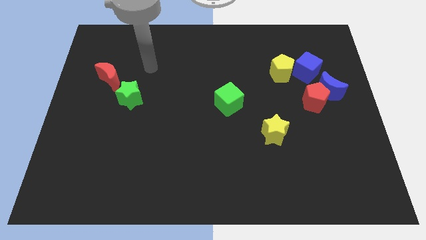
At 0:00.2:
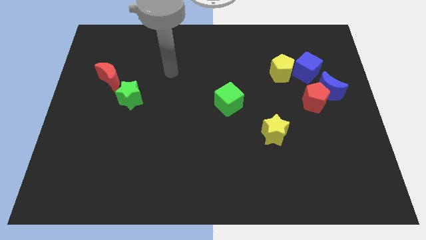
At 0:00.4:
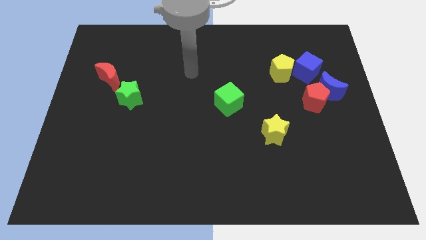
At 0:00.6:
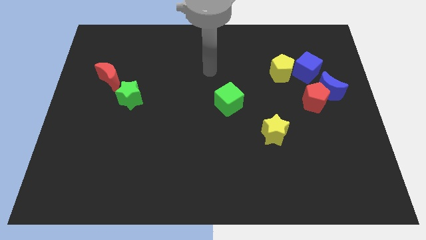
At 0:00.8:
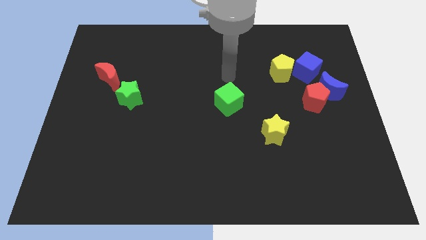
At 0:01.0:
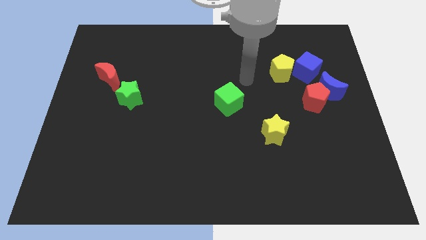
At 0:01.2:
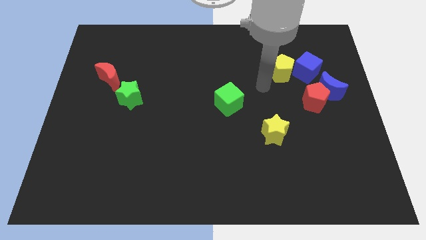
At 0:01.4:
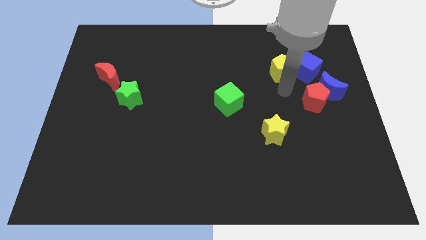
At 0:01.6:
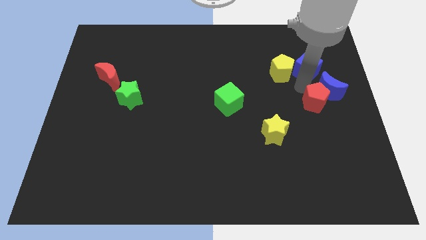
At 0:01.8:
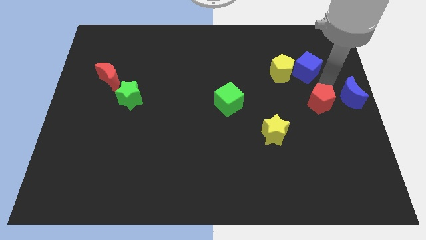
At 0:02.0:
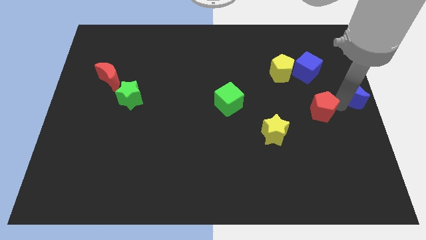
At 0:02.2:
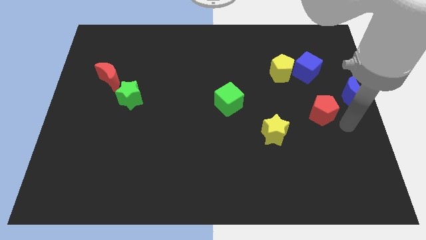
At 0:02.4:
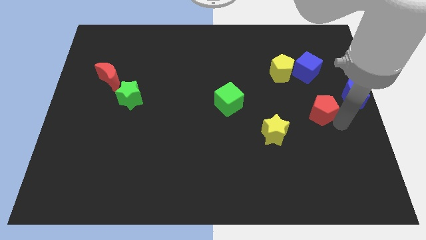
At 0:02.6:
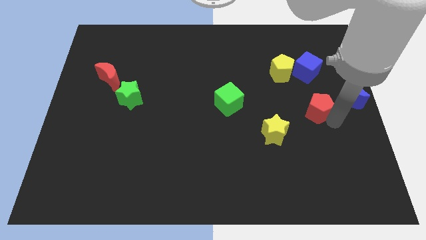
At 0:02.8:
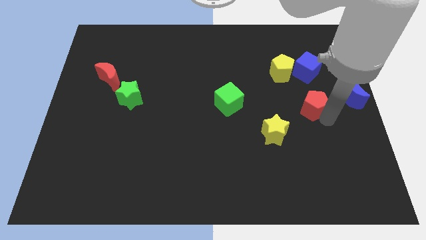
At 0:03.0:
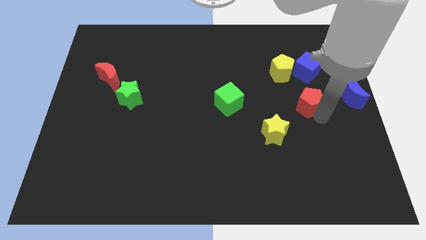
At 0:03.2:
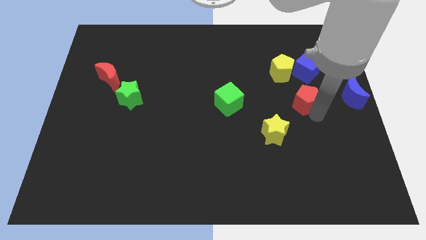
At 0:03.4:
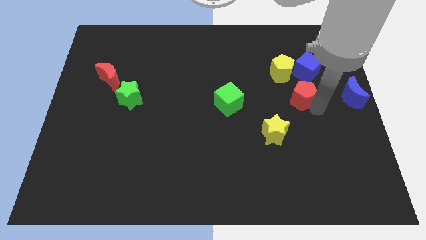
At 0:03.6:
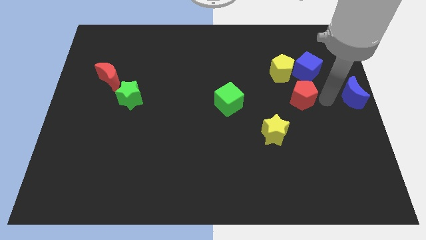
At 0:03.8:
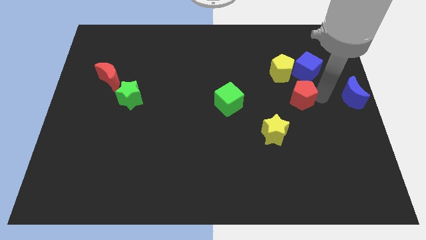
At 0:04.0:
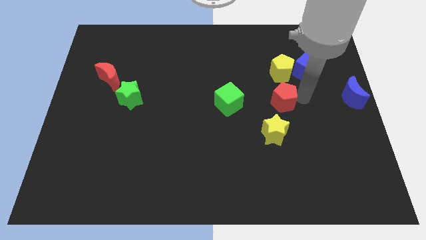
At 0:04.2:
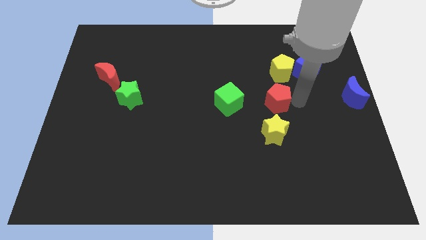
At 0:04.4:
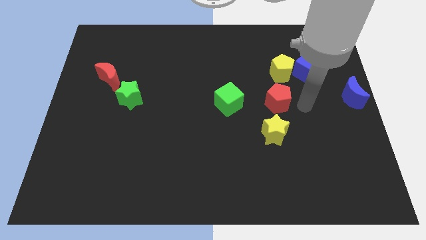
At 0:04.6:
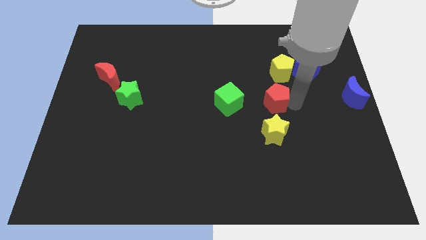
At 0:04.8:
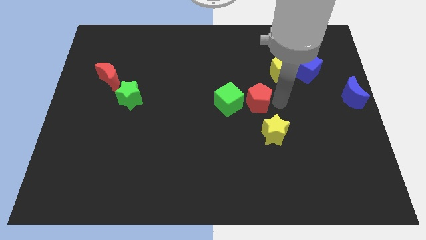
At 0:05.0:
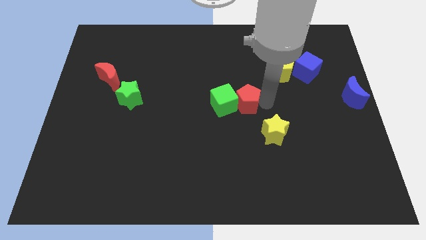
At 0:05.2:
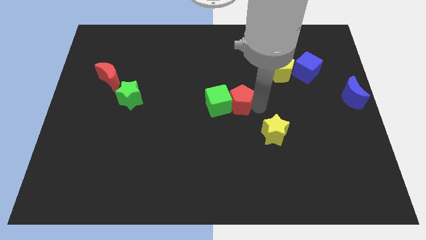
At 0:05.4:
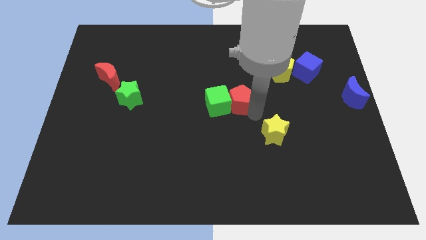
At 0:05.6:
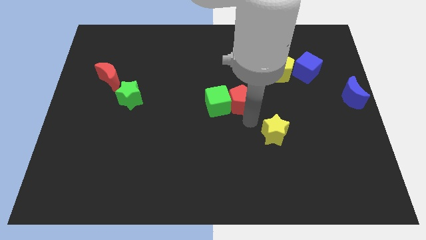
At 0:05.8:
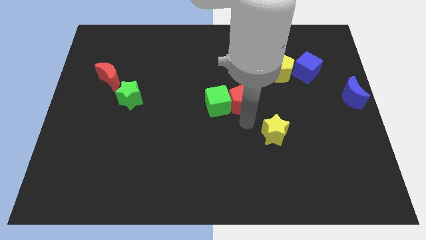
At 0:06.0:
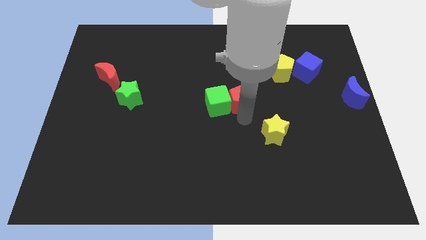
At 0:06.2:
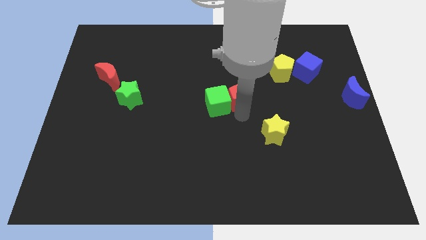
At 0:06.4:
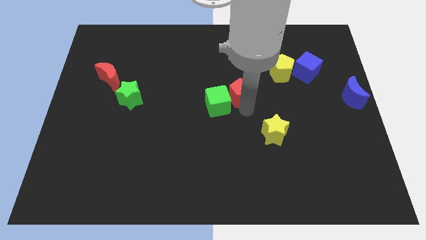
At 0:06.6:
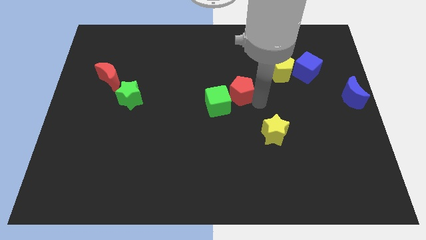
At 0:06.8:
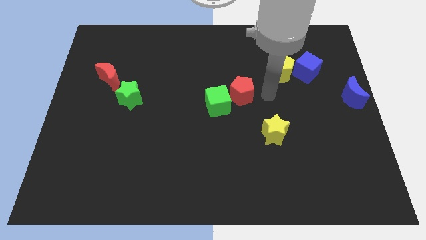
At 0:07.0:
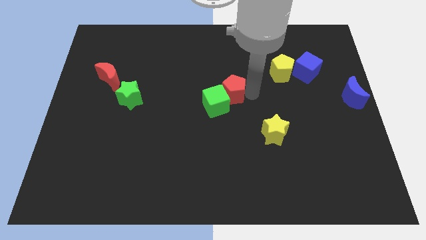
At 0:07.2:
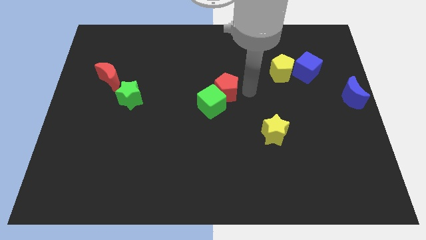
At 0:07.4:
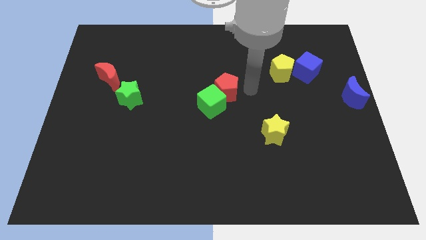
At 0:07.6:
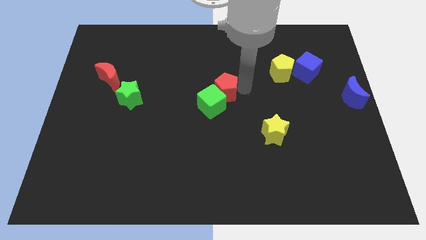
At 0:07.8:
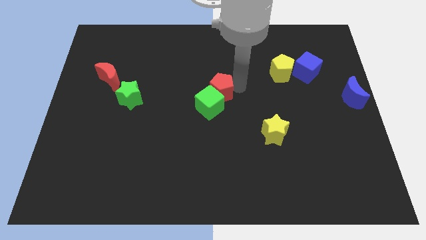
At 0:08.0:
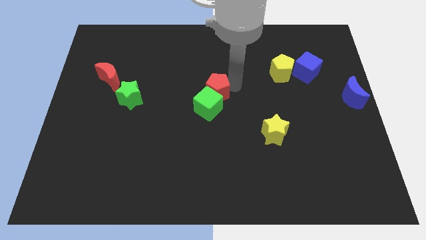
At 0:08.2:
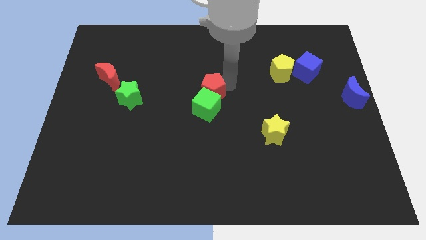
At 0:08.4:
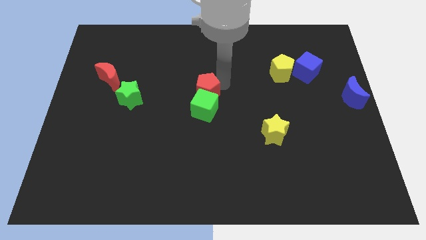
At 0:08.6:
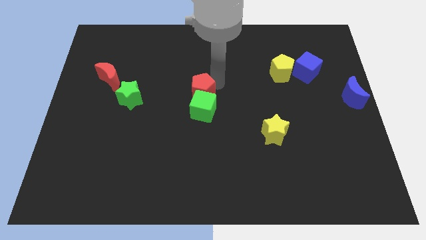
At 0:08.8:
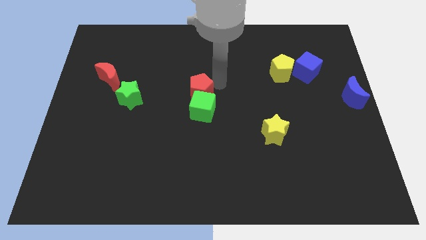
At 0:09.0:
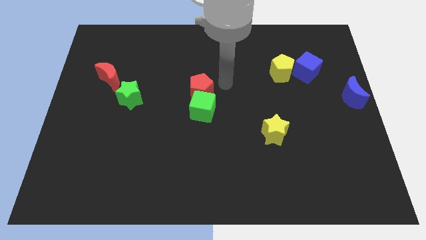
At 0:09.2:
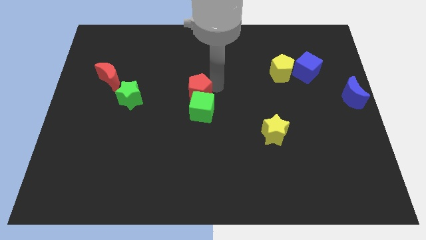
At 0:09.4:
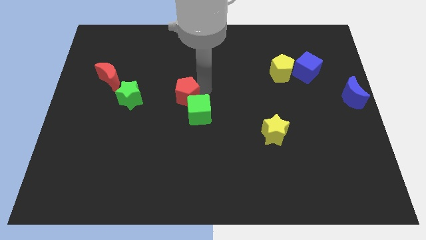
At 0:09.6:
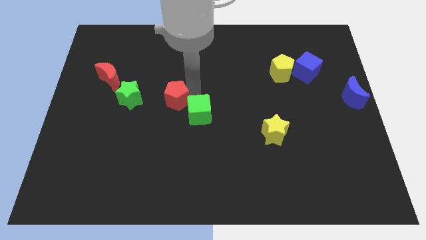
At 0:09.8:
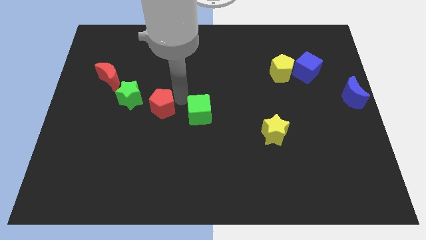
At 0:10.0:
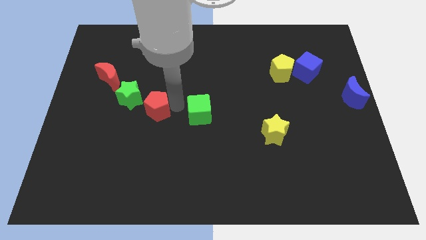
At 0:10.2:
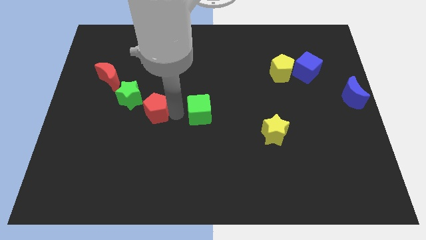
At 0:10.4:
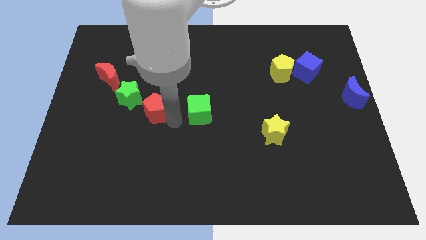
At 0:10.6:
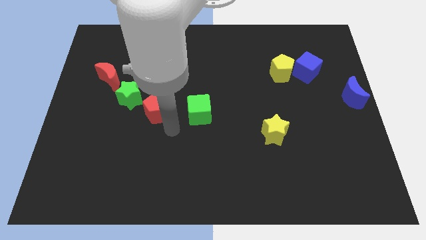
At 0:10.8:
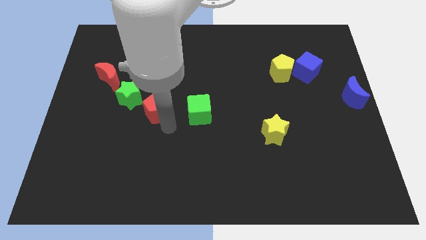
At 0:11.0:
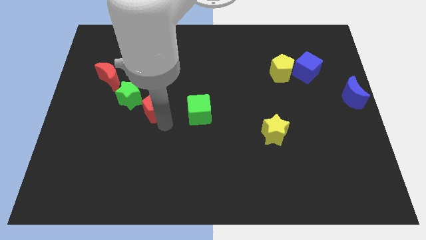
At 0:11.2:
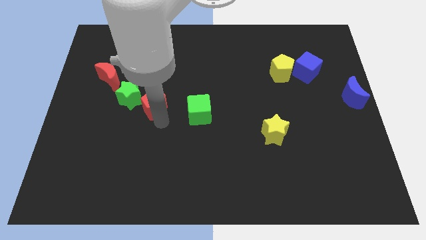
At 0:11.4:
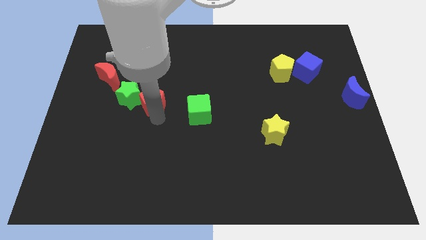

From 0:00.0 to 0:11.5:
push the red pentagon towards the green star

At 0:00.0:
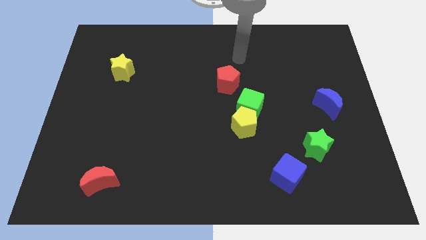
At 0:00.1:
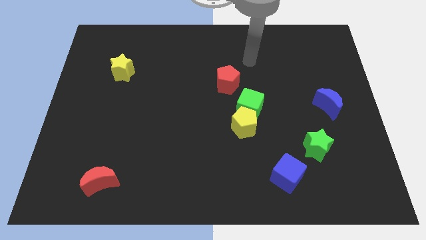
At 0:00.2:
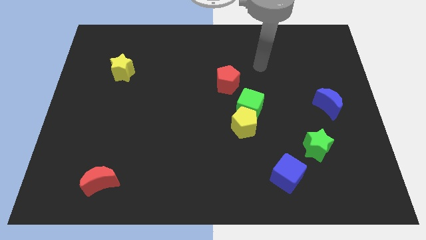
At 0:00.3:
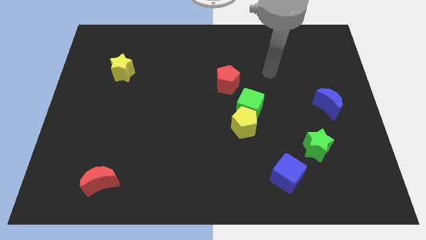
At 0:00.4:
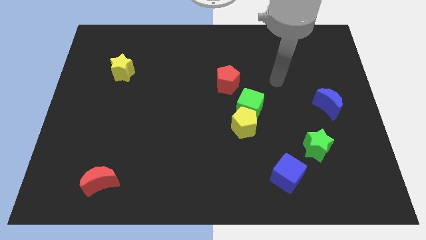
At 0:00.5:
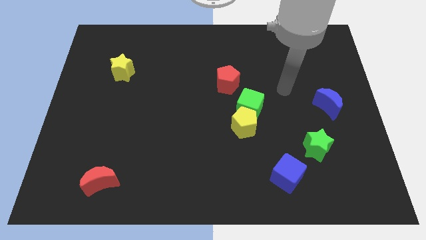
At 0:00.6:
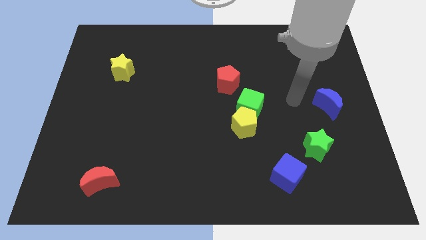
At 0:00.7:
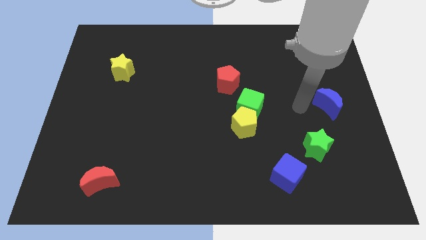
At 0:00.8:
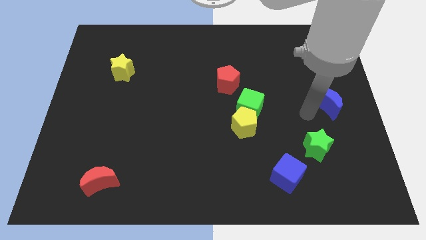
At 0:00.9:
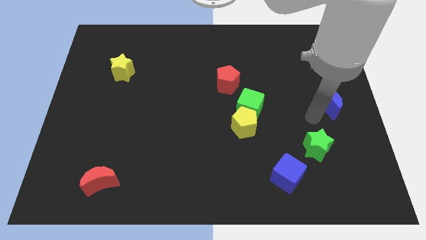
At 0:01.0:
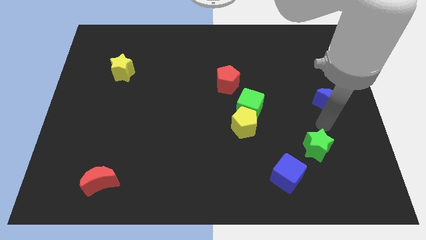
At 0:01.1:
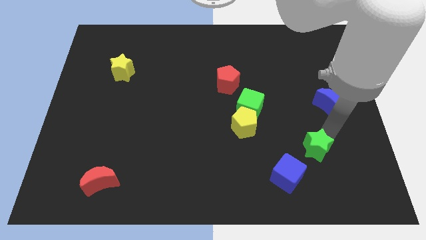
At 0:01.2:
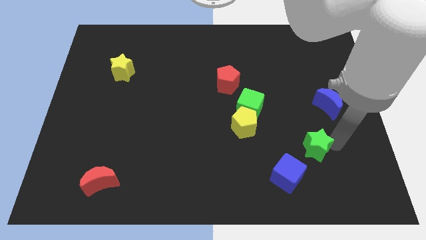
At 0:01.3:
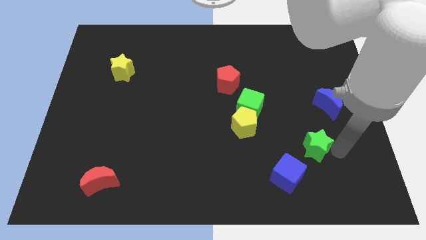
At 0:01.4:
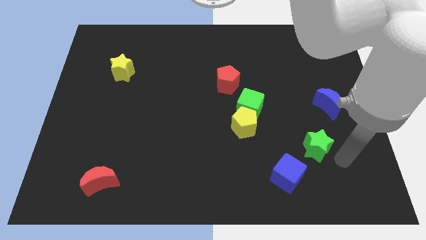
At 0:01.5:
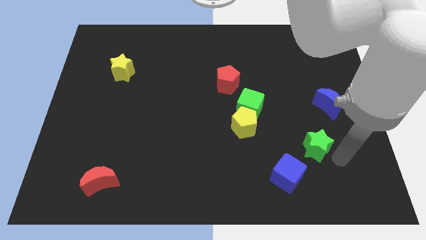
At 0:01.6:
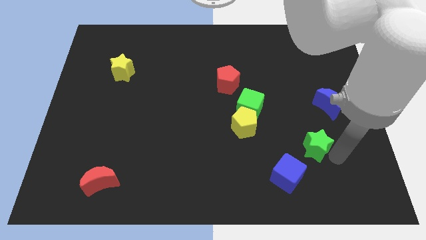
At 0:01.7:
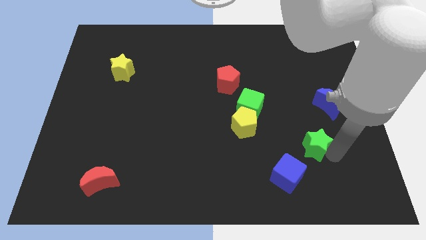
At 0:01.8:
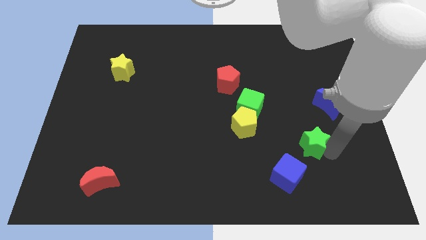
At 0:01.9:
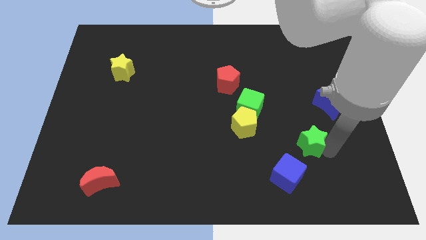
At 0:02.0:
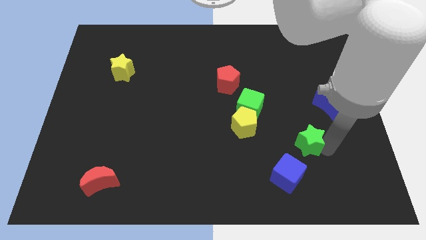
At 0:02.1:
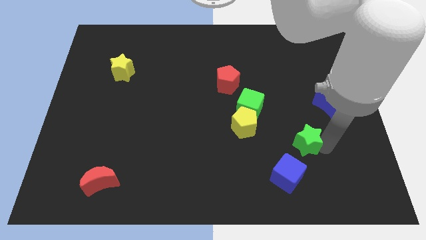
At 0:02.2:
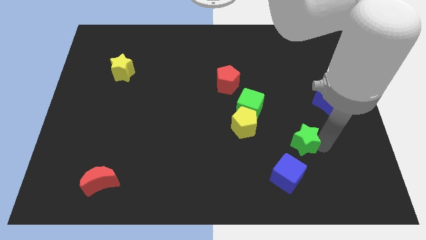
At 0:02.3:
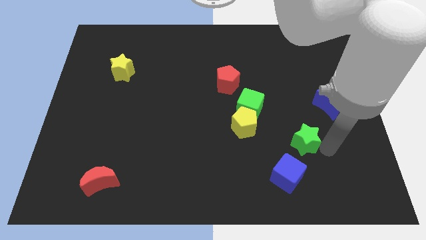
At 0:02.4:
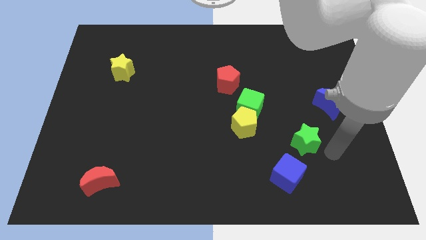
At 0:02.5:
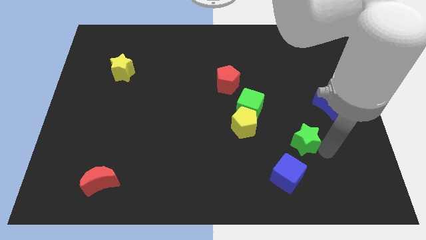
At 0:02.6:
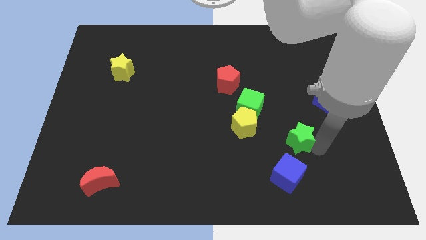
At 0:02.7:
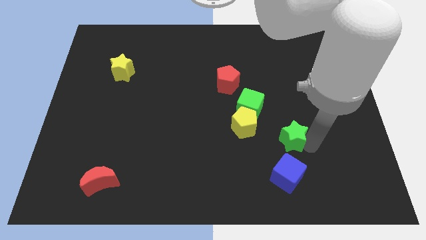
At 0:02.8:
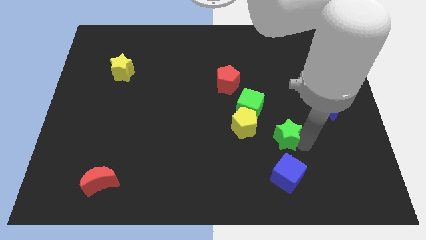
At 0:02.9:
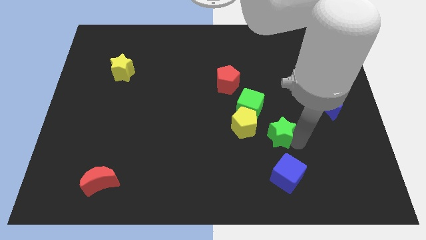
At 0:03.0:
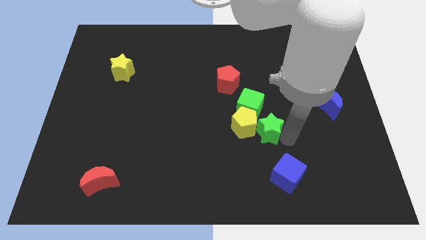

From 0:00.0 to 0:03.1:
move the green star towards the yellow pentagon
